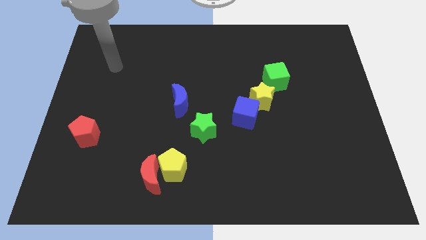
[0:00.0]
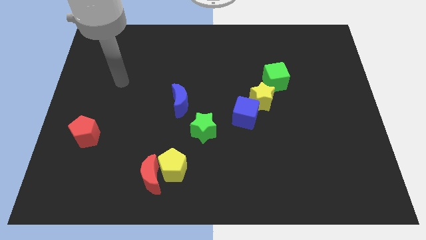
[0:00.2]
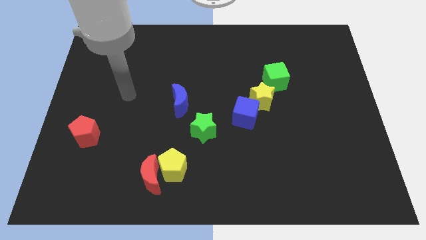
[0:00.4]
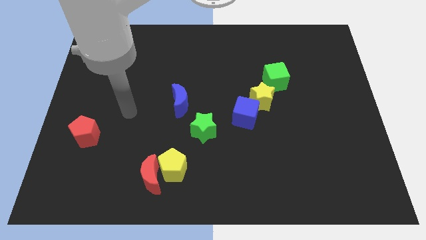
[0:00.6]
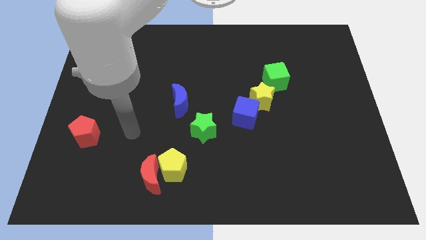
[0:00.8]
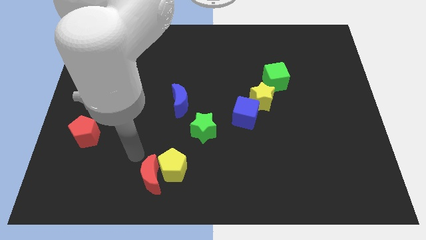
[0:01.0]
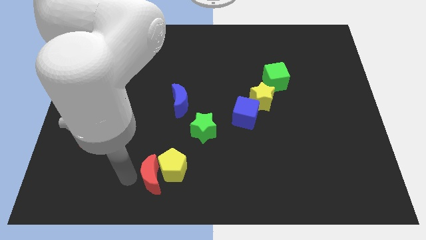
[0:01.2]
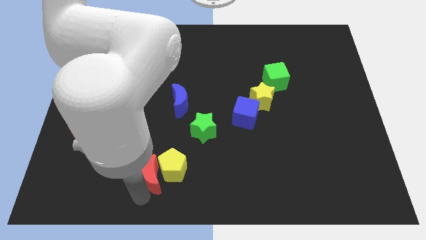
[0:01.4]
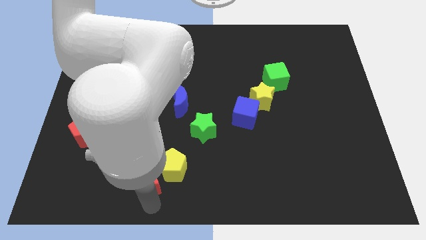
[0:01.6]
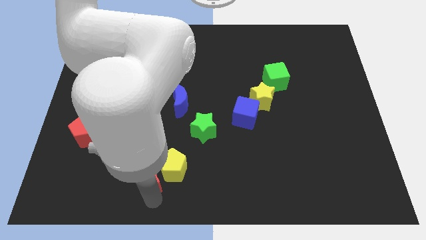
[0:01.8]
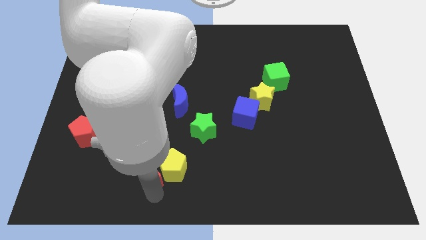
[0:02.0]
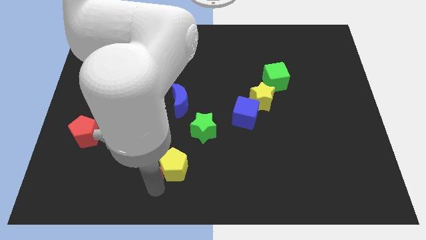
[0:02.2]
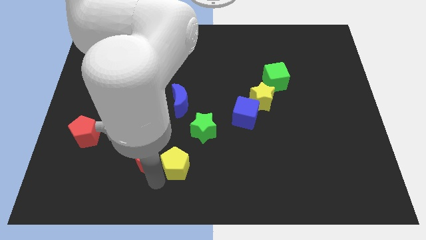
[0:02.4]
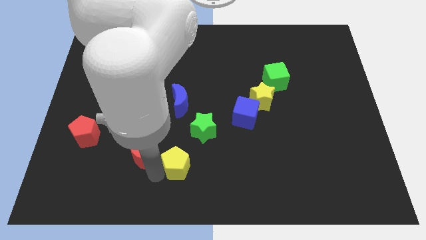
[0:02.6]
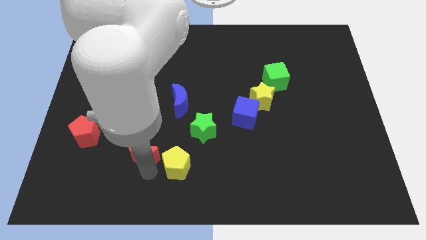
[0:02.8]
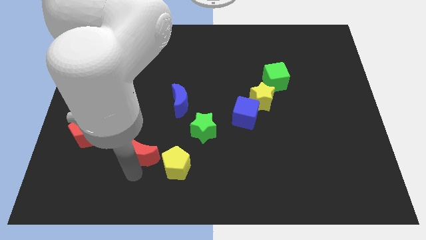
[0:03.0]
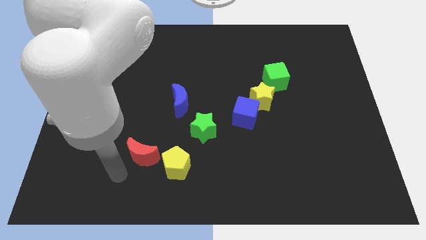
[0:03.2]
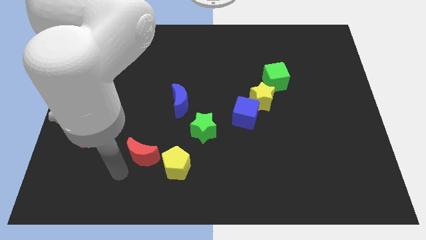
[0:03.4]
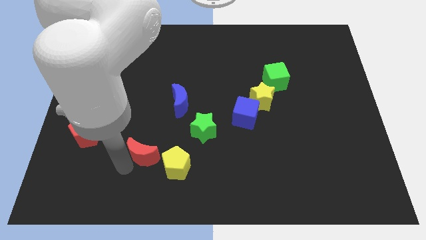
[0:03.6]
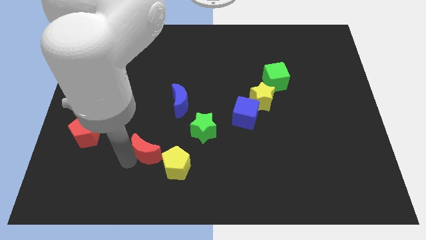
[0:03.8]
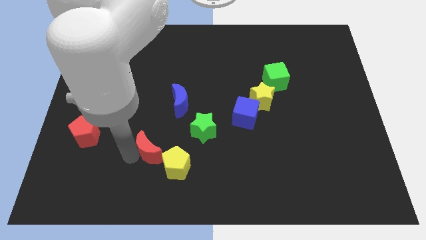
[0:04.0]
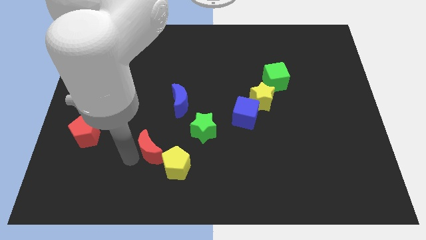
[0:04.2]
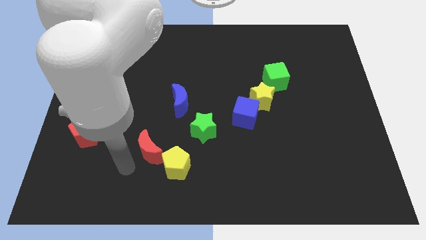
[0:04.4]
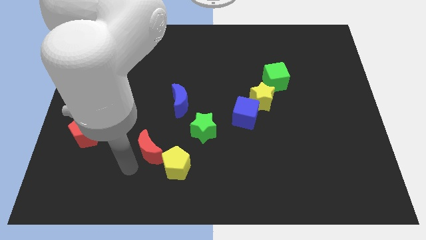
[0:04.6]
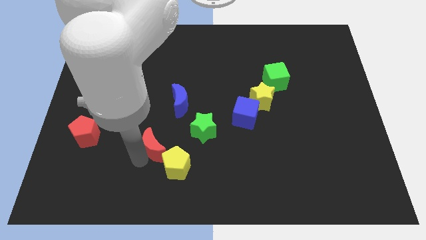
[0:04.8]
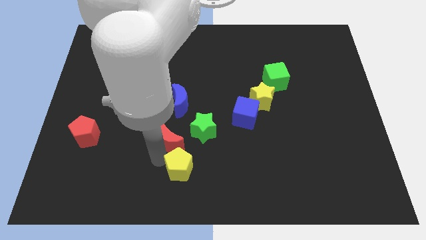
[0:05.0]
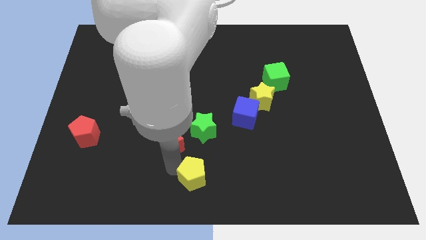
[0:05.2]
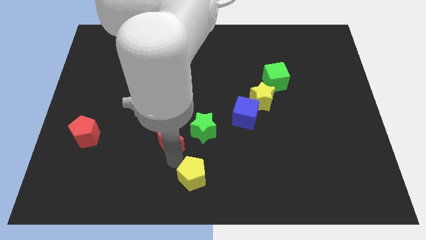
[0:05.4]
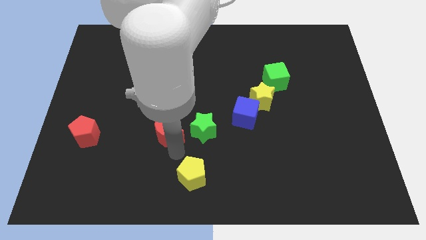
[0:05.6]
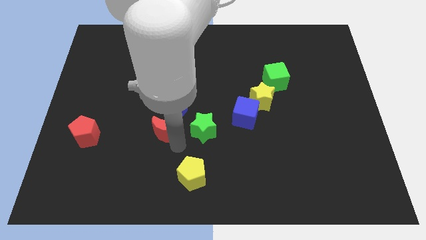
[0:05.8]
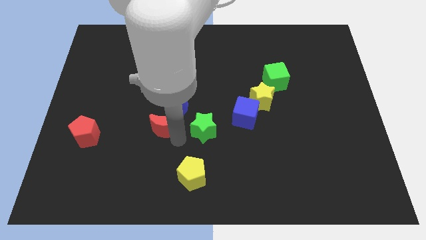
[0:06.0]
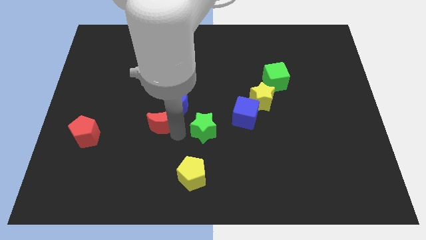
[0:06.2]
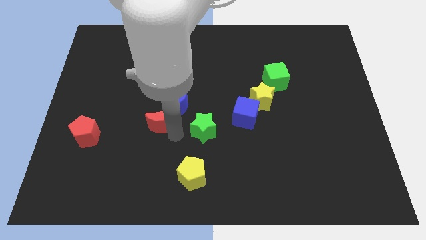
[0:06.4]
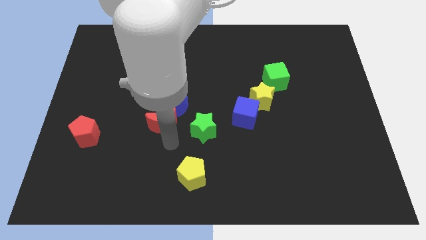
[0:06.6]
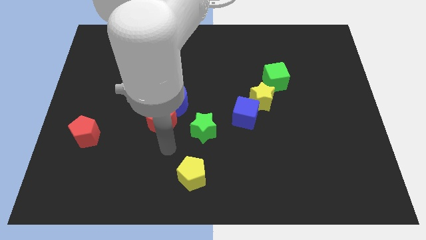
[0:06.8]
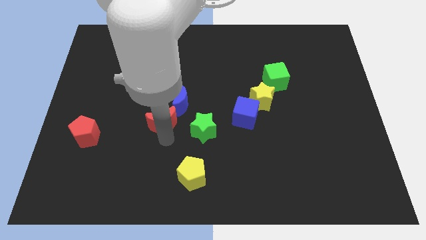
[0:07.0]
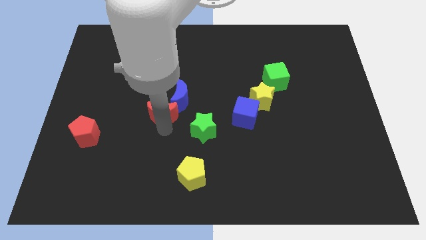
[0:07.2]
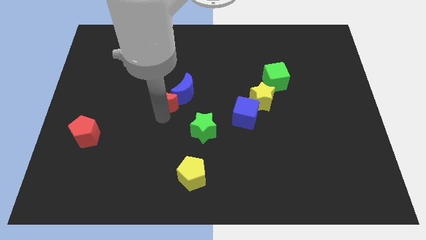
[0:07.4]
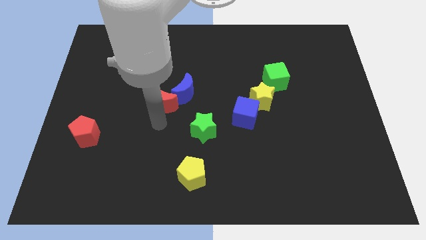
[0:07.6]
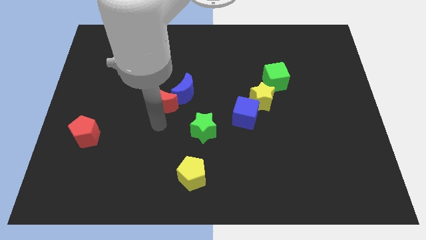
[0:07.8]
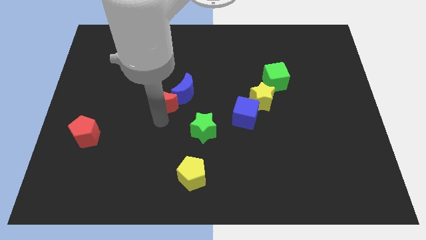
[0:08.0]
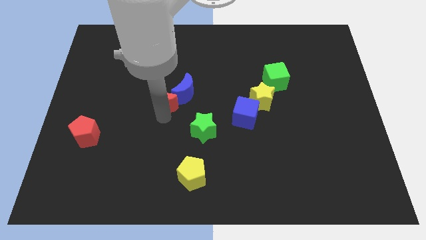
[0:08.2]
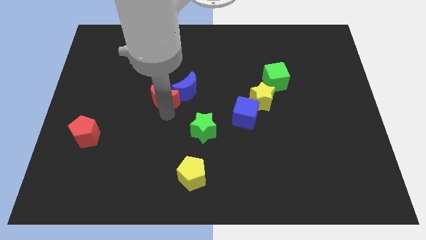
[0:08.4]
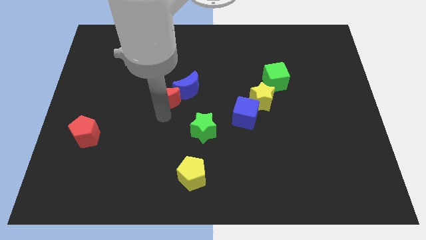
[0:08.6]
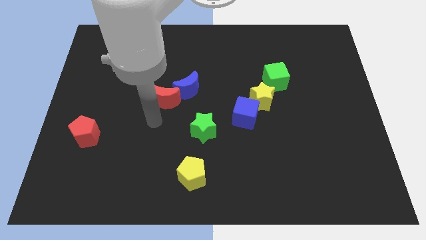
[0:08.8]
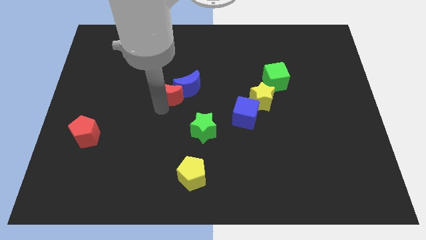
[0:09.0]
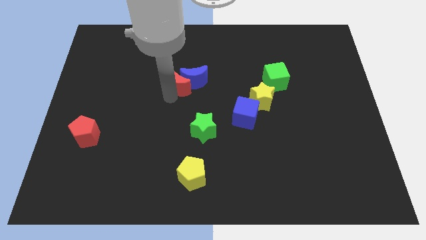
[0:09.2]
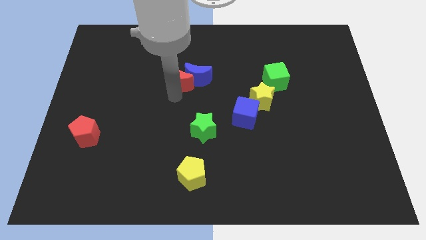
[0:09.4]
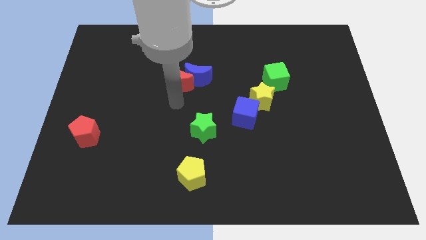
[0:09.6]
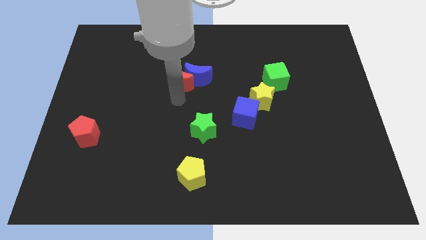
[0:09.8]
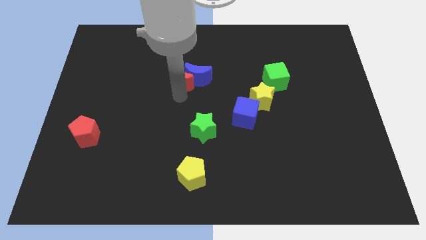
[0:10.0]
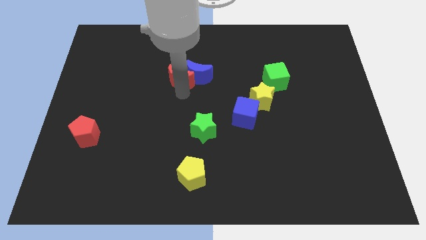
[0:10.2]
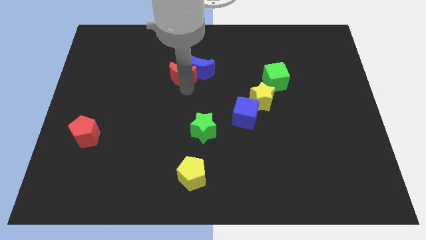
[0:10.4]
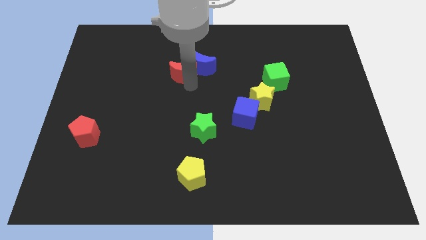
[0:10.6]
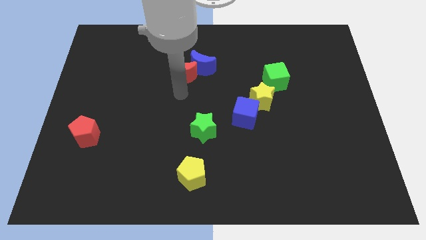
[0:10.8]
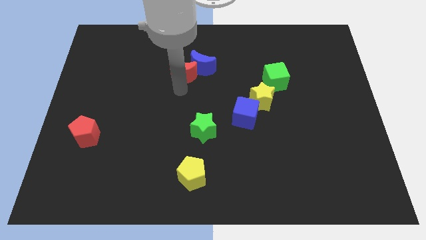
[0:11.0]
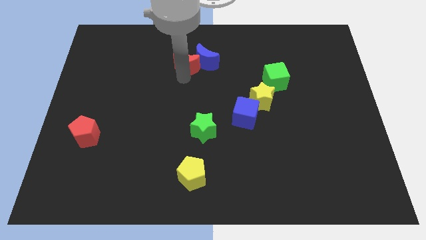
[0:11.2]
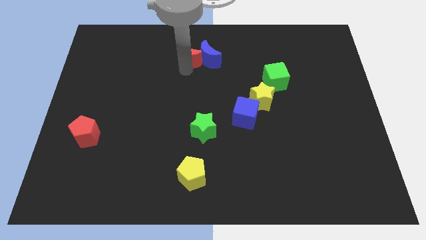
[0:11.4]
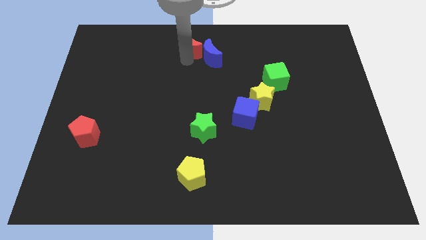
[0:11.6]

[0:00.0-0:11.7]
put the red moon to the towards your base

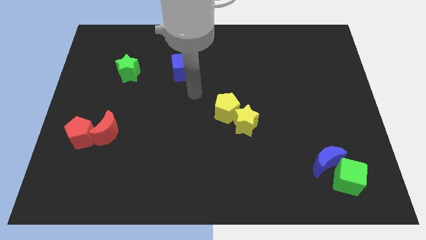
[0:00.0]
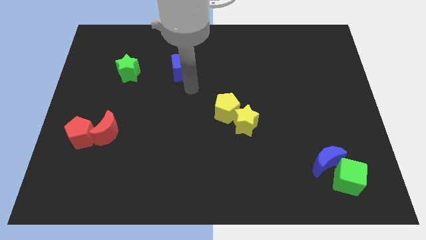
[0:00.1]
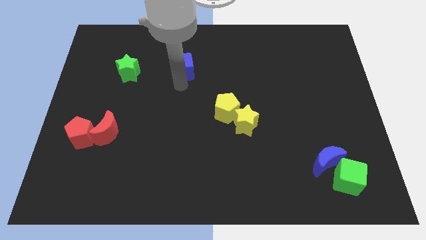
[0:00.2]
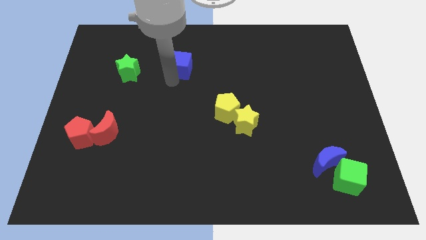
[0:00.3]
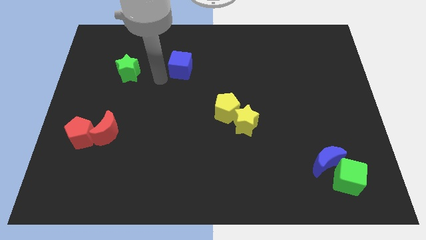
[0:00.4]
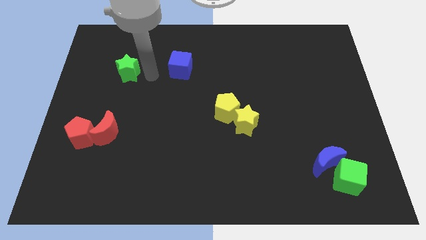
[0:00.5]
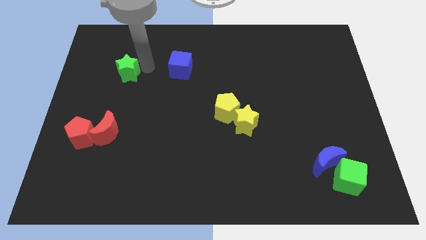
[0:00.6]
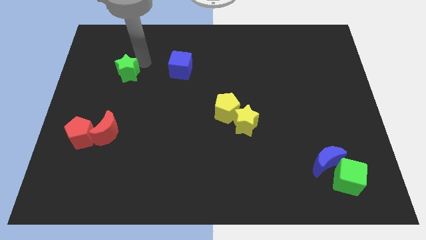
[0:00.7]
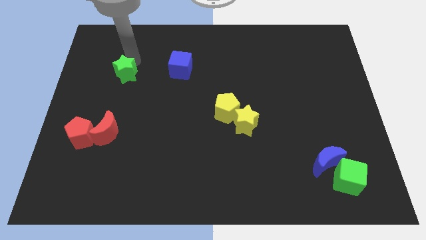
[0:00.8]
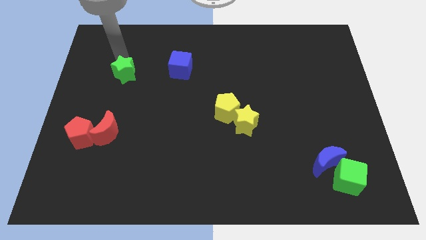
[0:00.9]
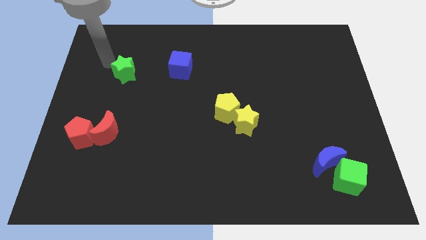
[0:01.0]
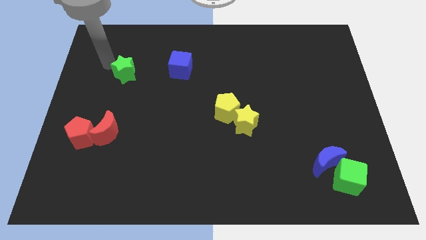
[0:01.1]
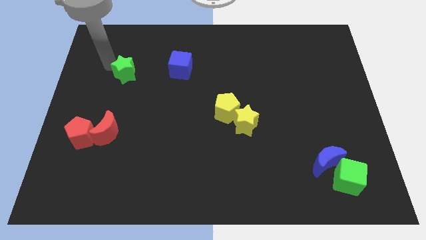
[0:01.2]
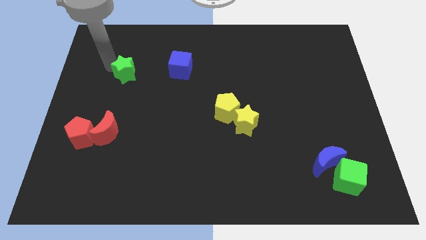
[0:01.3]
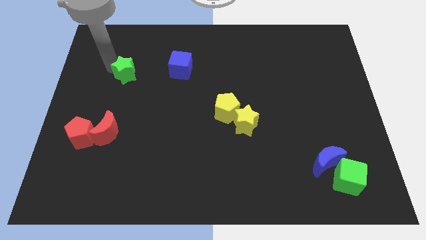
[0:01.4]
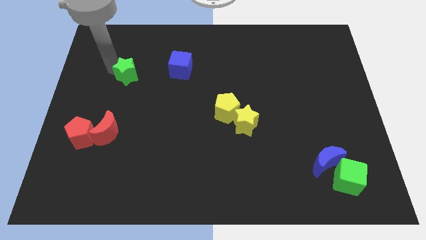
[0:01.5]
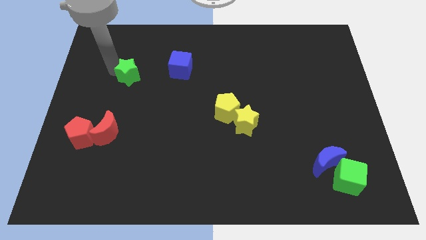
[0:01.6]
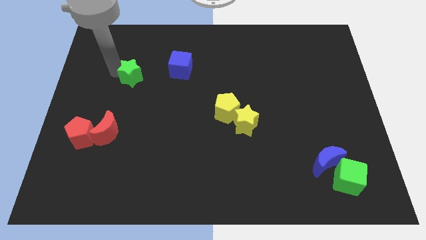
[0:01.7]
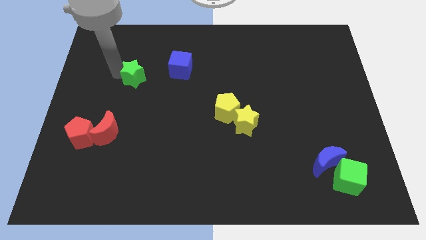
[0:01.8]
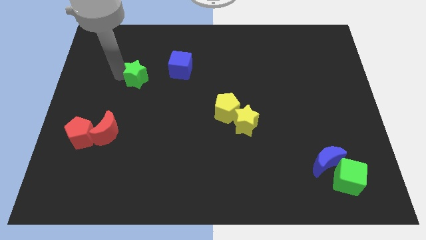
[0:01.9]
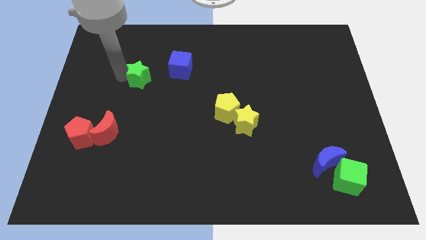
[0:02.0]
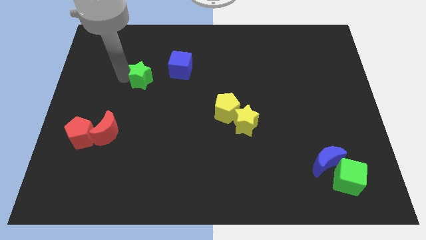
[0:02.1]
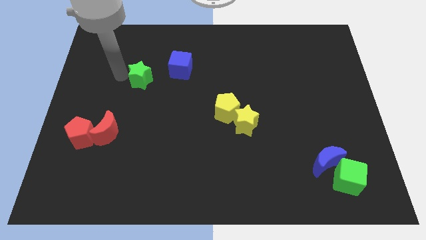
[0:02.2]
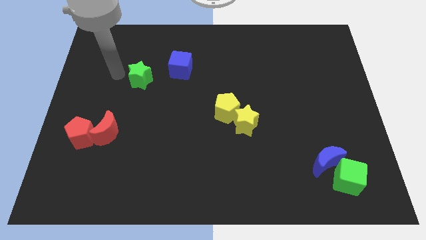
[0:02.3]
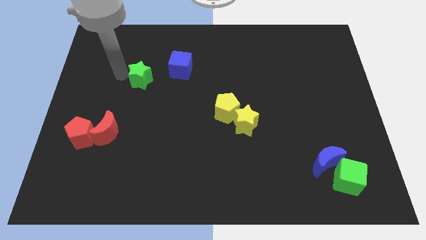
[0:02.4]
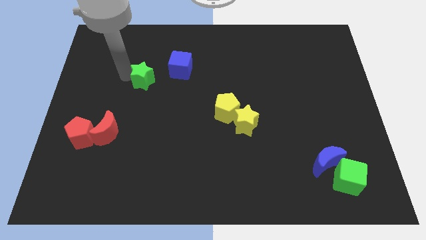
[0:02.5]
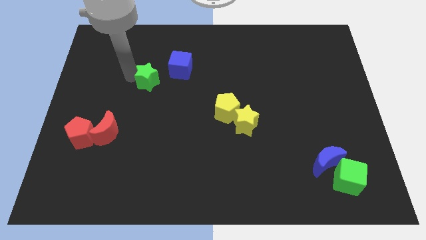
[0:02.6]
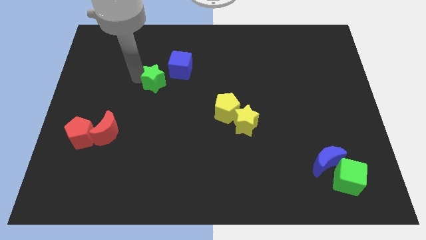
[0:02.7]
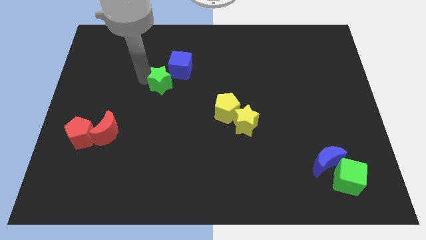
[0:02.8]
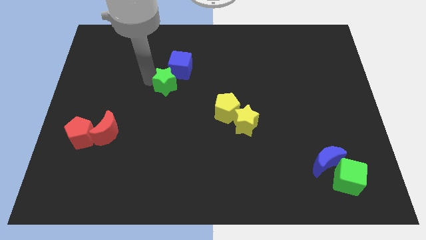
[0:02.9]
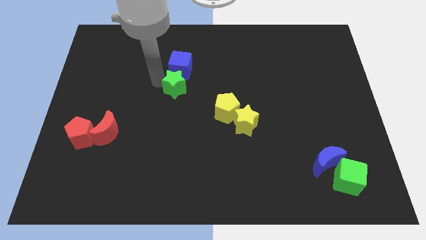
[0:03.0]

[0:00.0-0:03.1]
put the green star to the middle
